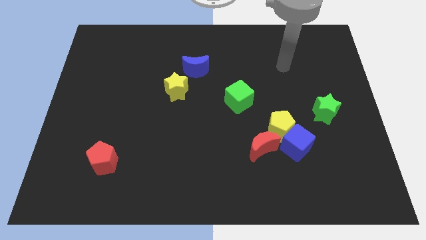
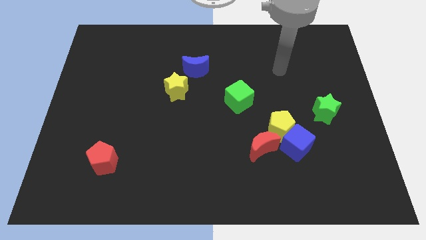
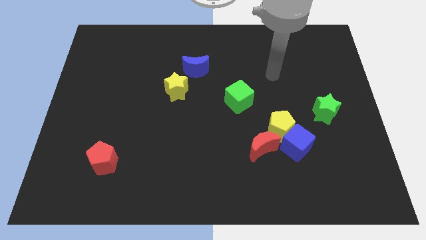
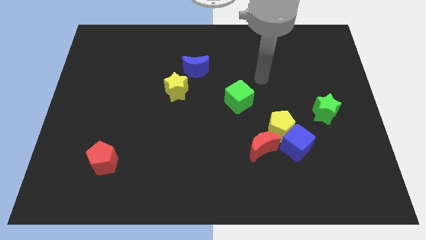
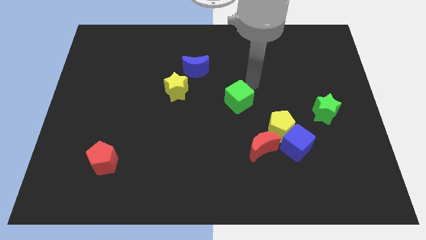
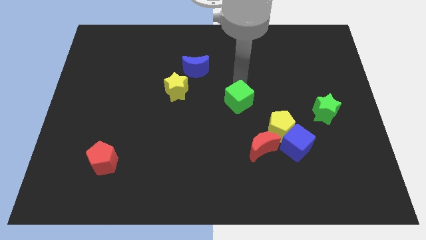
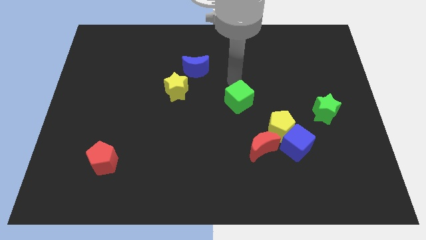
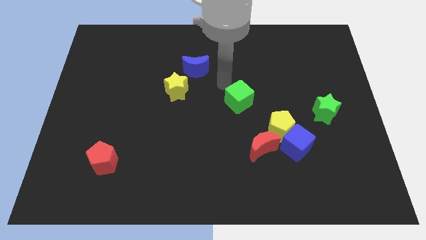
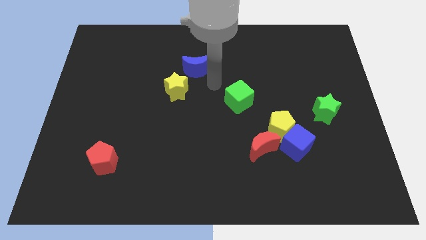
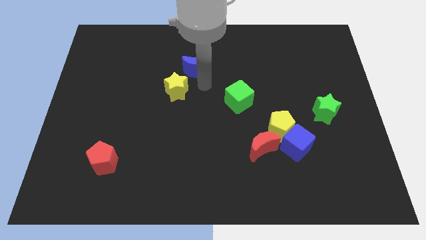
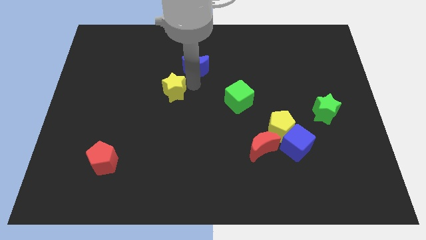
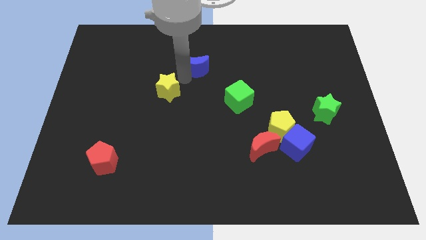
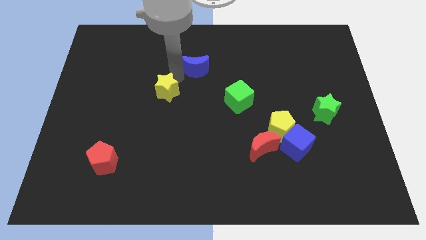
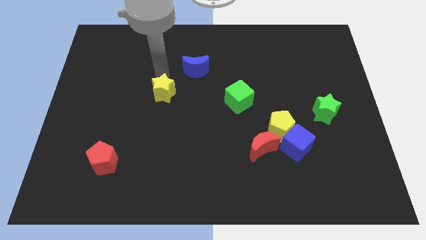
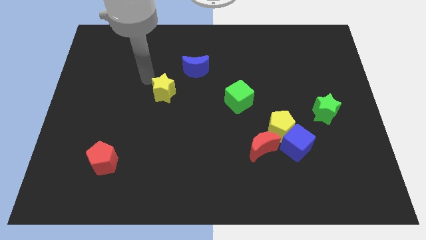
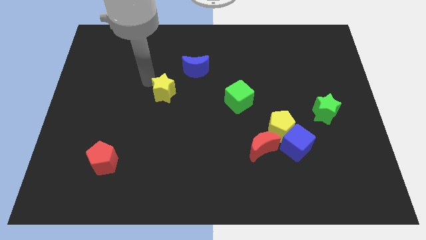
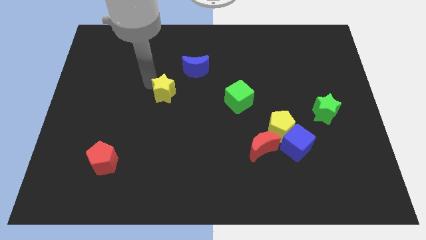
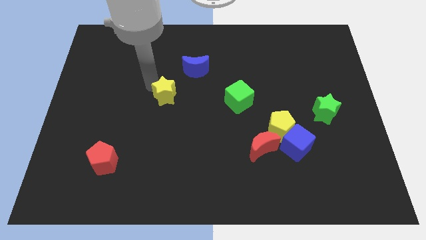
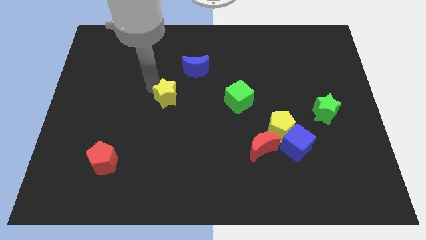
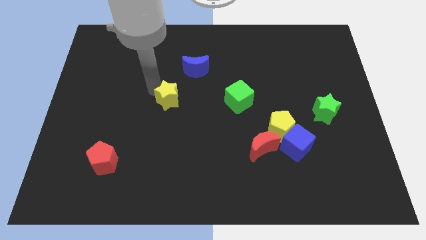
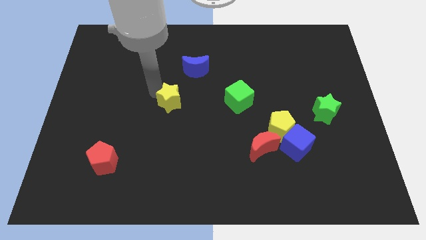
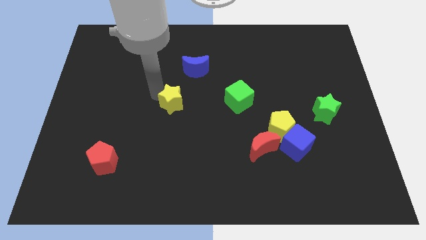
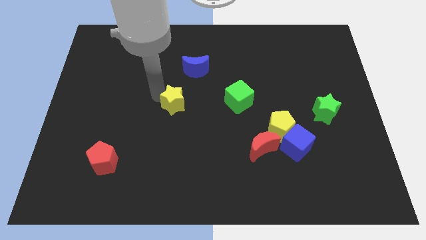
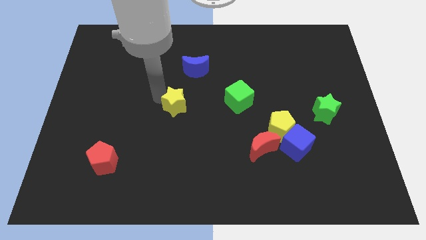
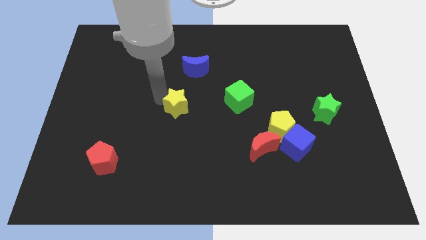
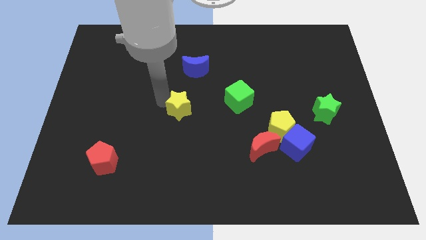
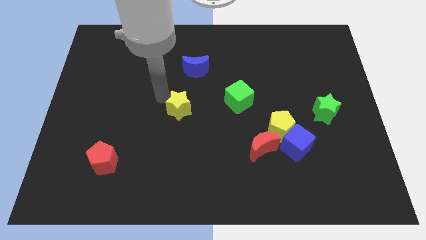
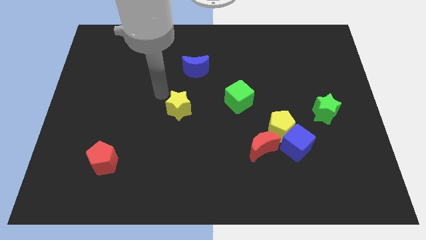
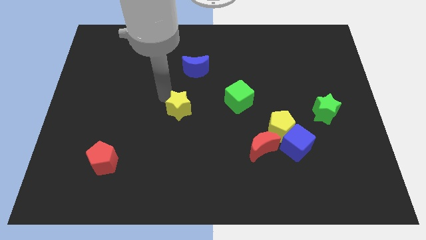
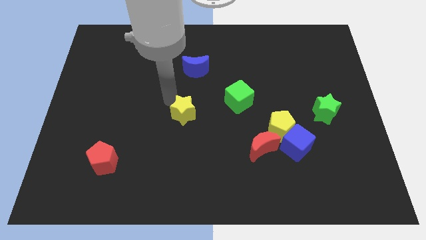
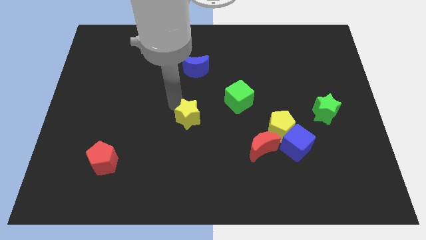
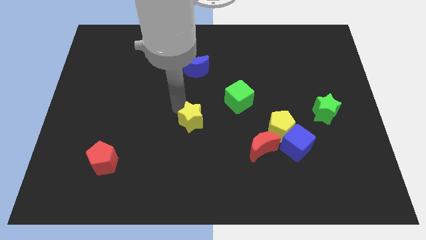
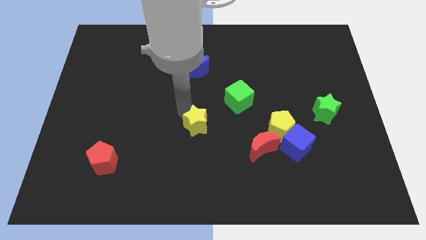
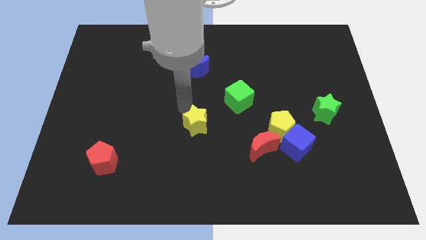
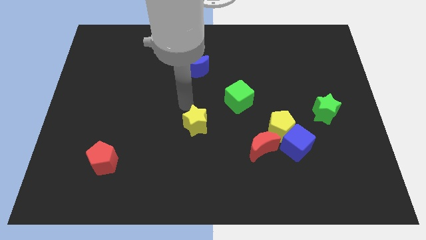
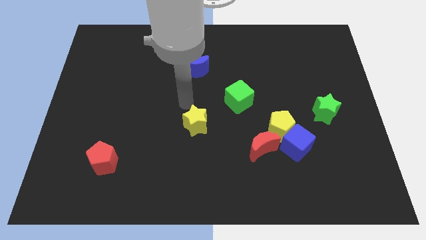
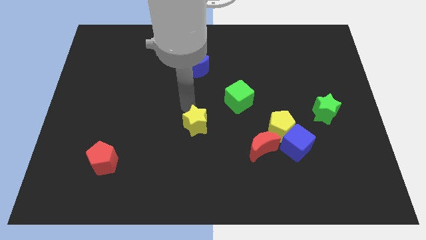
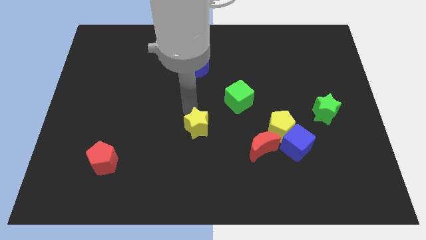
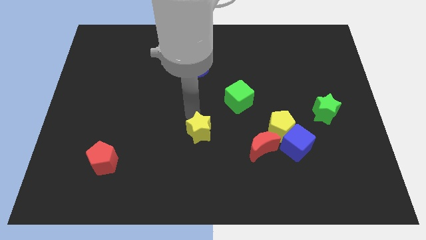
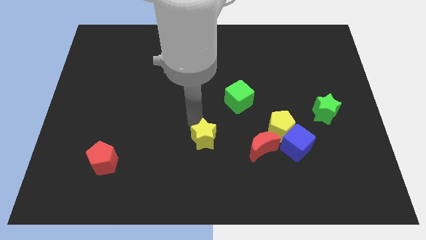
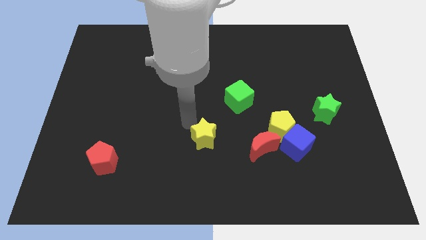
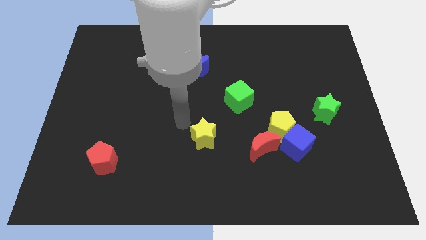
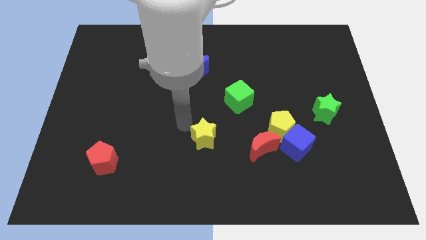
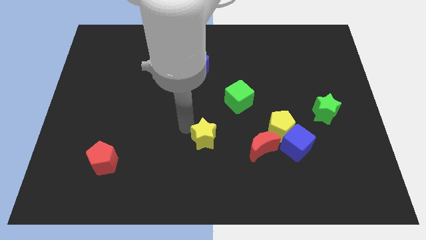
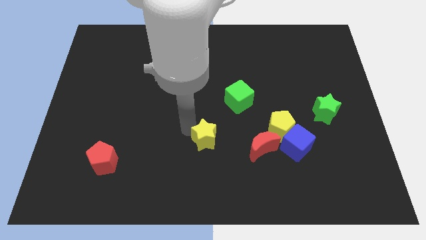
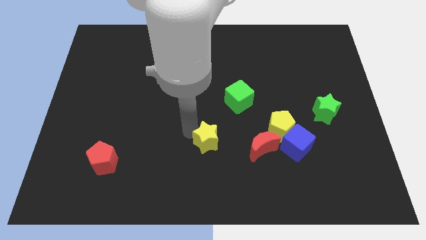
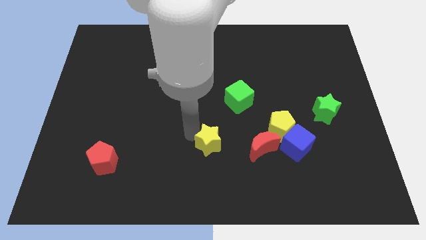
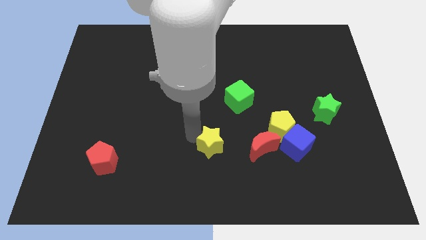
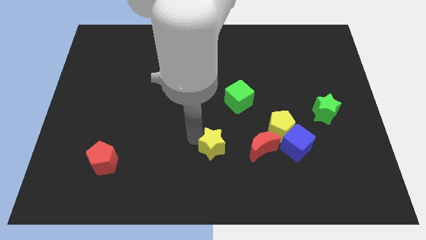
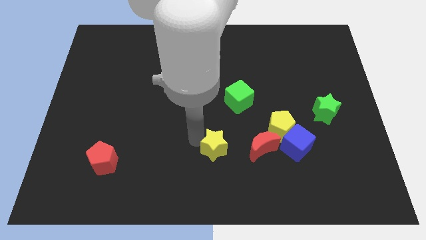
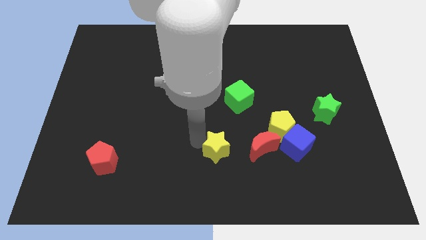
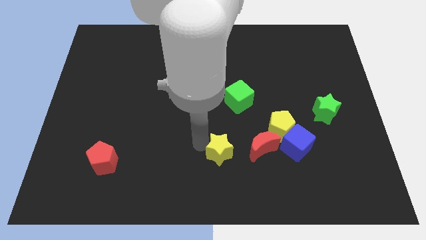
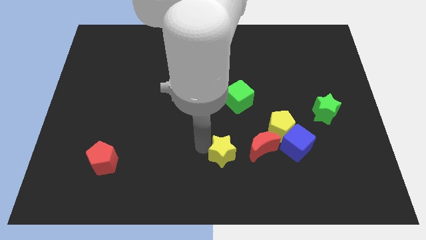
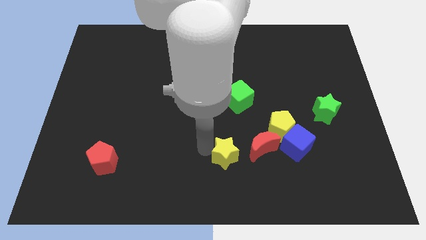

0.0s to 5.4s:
slide the yellow star downwards and then to the right

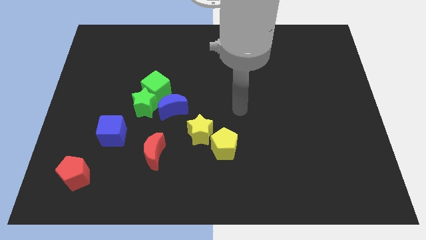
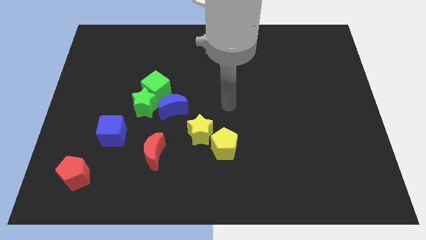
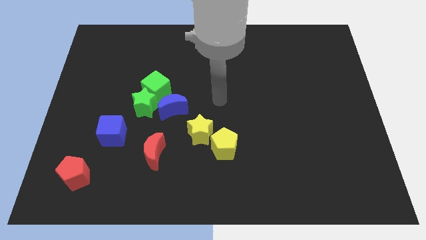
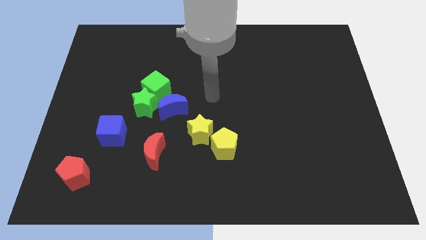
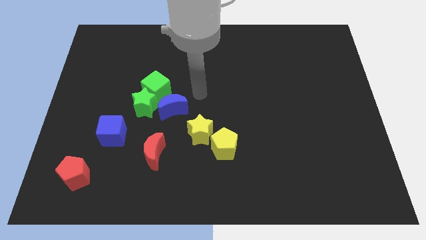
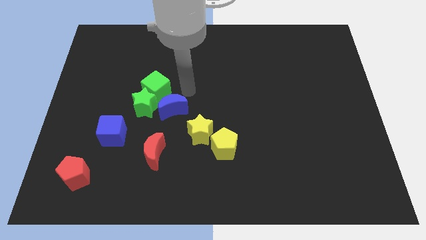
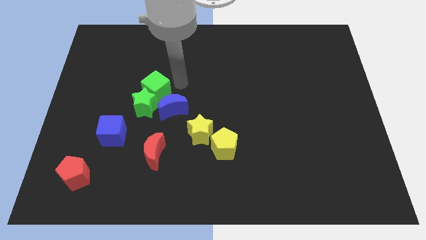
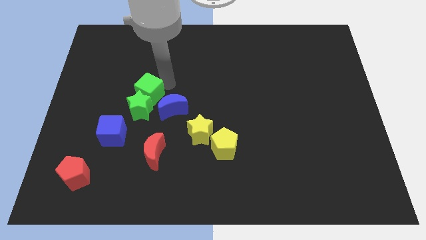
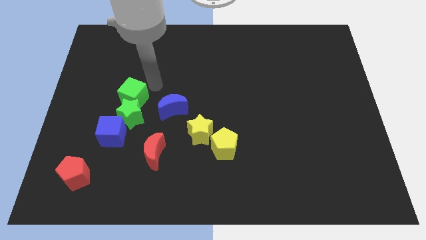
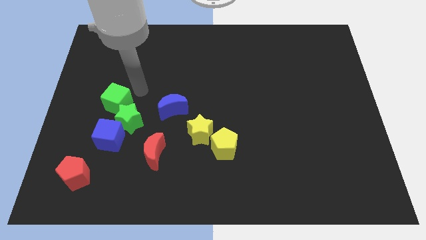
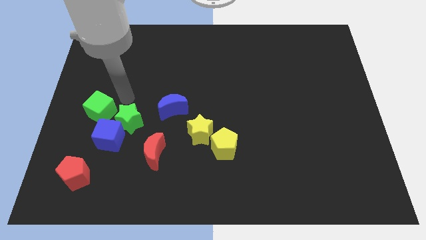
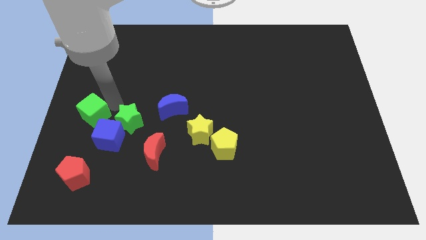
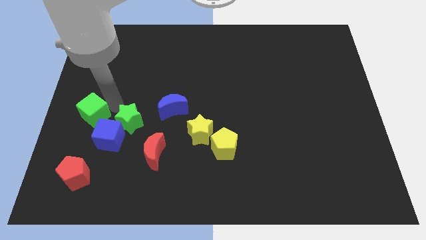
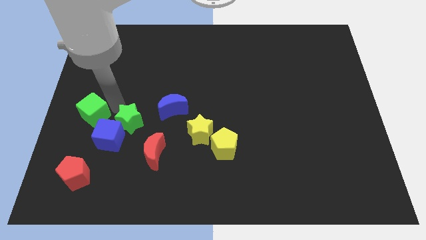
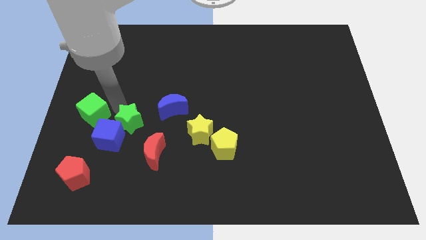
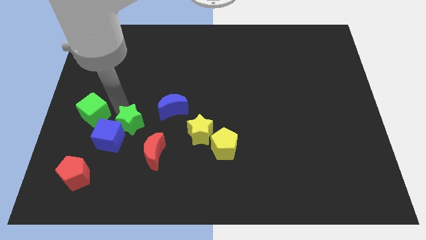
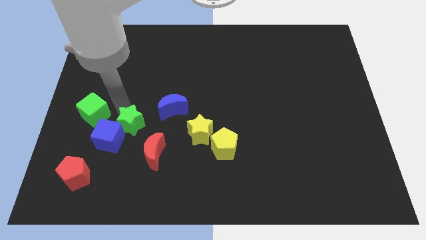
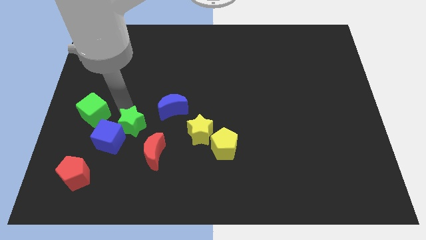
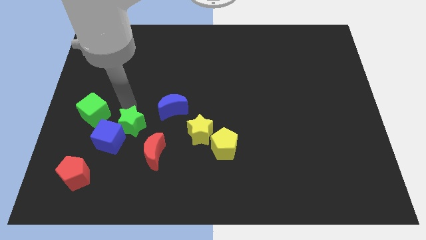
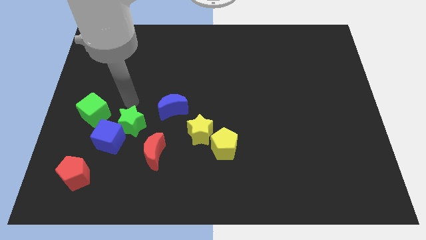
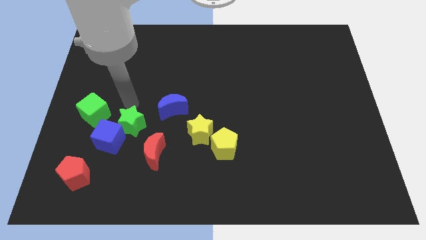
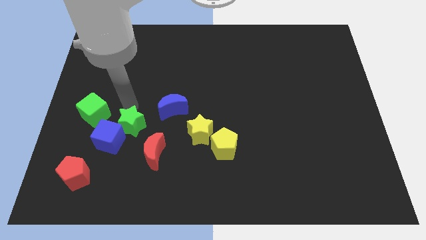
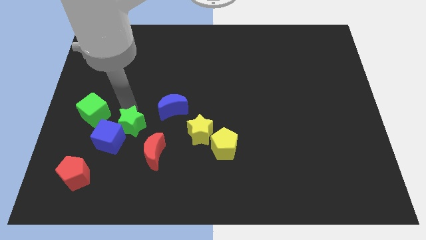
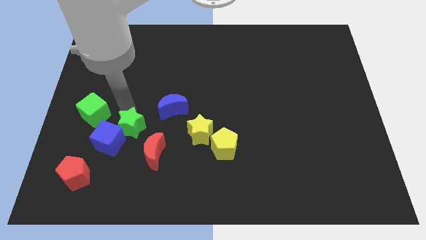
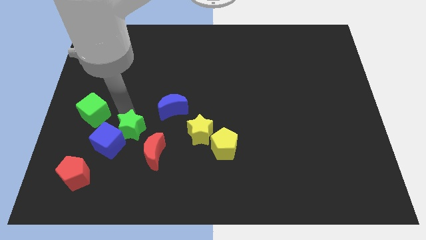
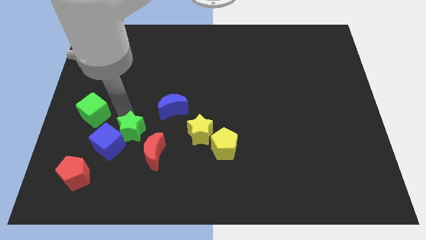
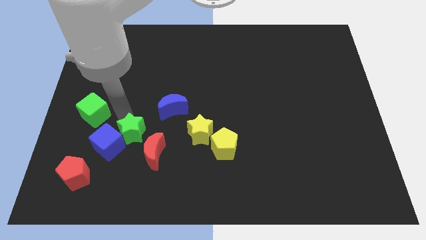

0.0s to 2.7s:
move the green star downwards a little bit
